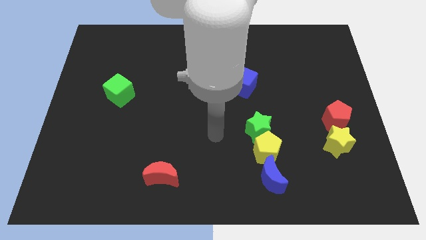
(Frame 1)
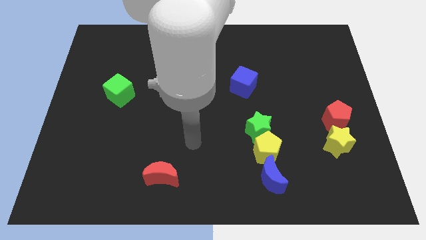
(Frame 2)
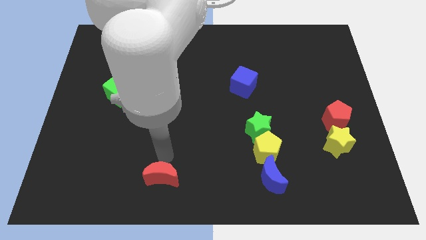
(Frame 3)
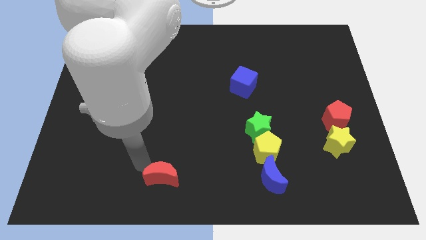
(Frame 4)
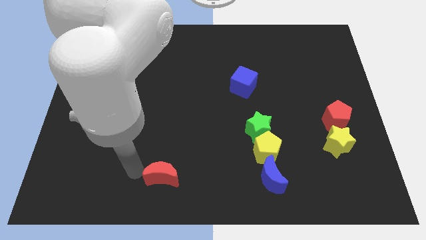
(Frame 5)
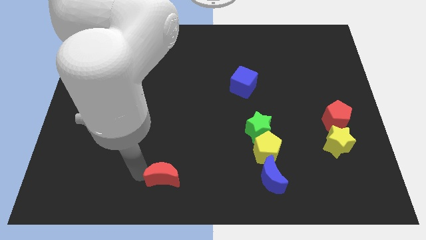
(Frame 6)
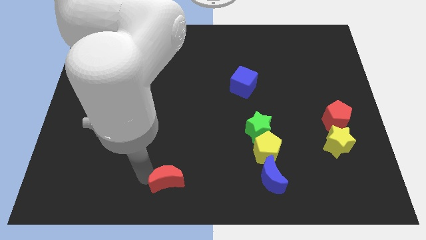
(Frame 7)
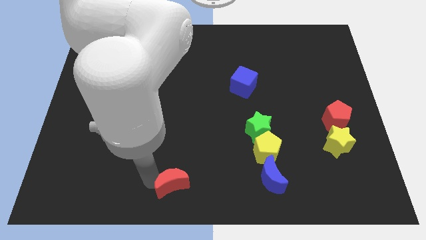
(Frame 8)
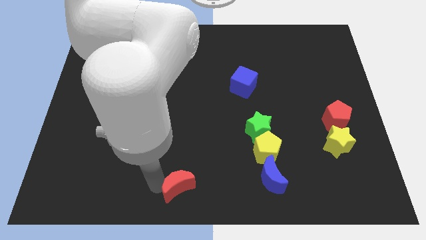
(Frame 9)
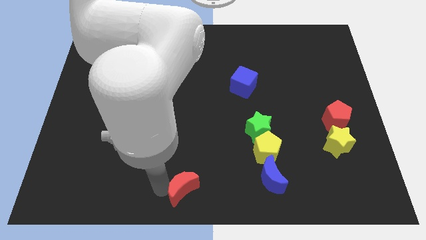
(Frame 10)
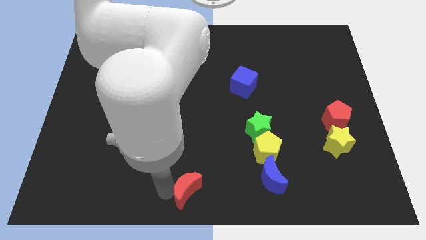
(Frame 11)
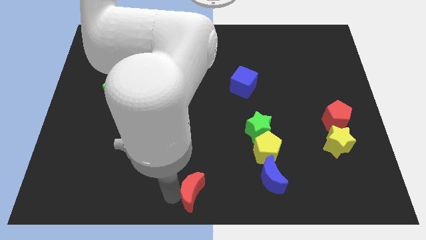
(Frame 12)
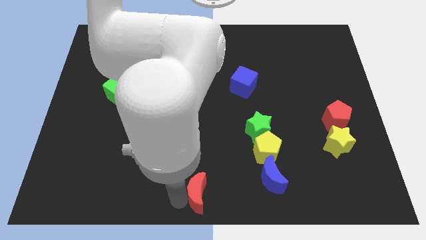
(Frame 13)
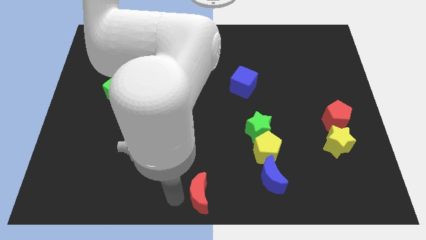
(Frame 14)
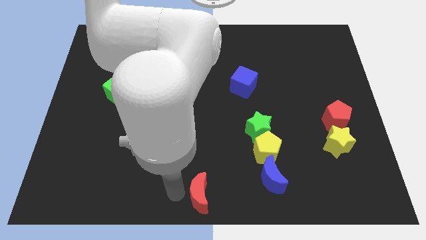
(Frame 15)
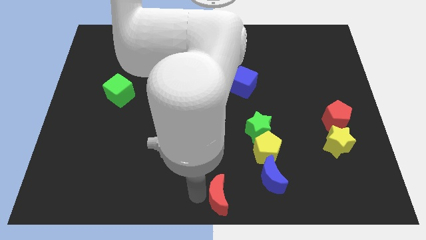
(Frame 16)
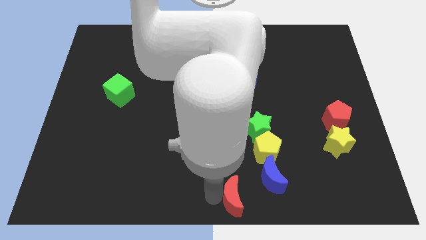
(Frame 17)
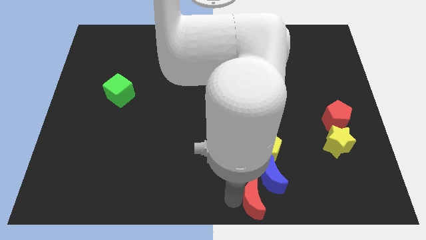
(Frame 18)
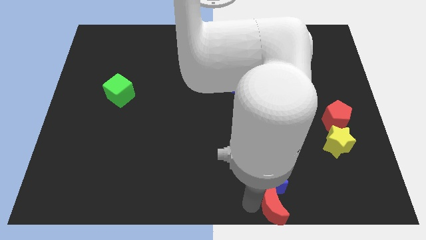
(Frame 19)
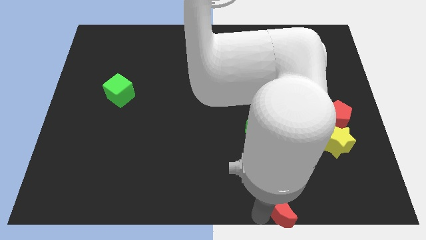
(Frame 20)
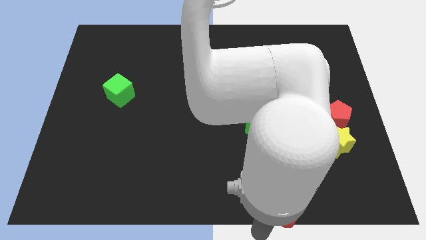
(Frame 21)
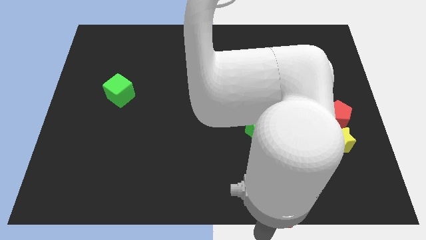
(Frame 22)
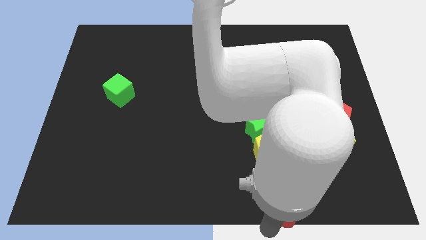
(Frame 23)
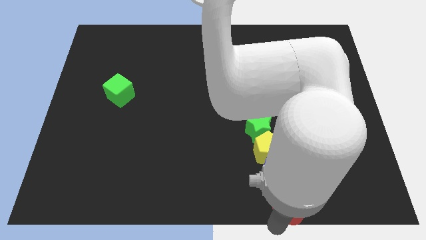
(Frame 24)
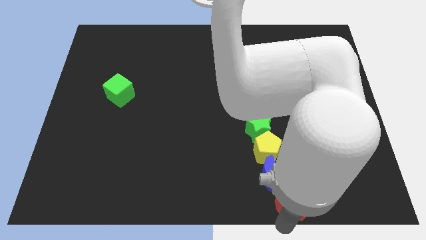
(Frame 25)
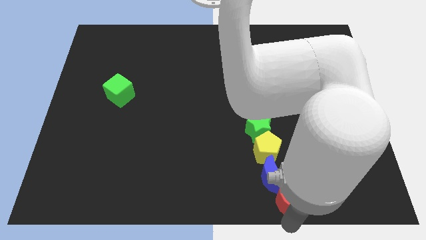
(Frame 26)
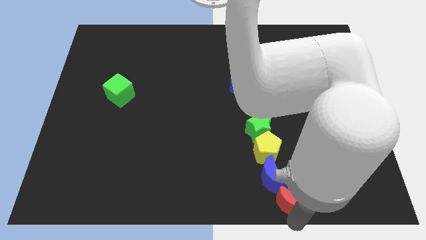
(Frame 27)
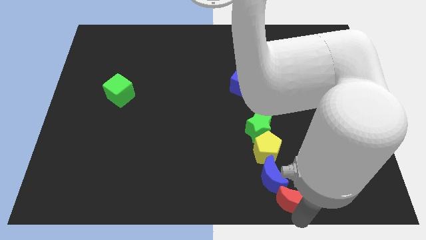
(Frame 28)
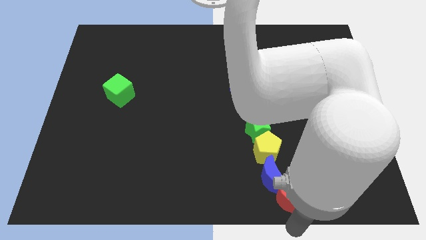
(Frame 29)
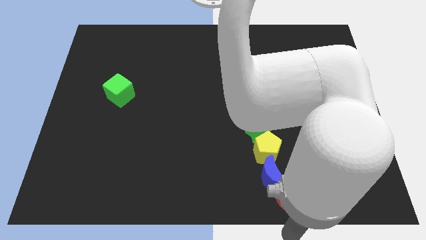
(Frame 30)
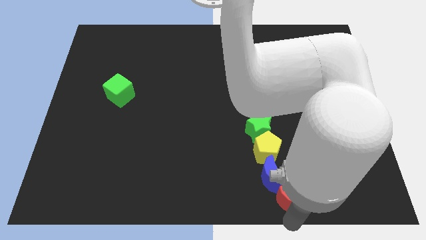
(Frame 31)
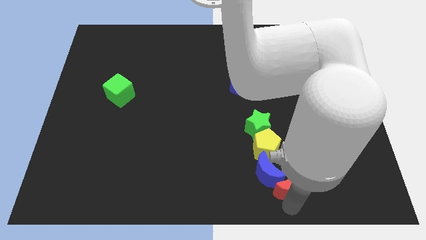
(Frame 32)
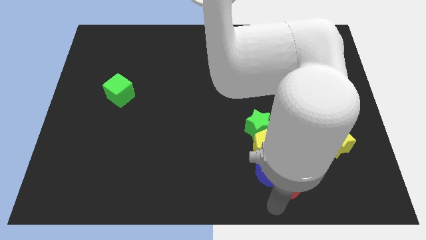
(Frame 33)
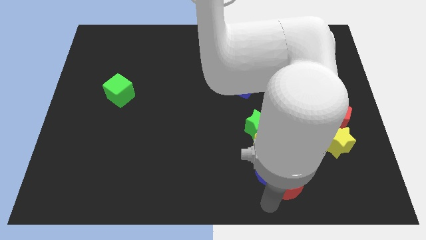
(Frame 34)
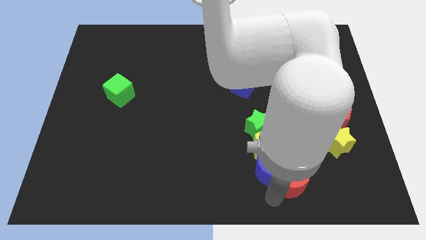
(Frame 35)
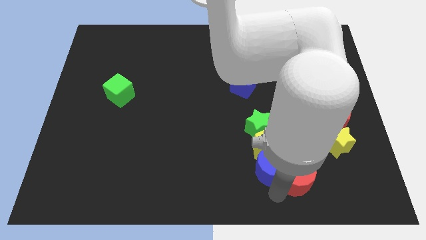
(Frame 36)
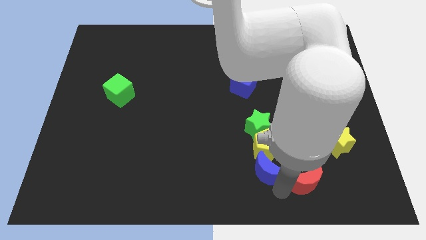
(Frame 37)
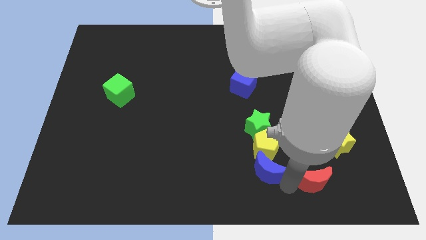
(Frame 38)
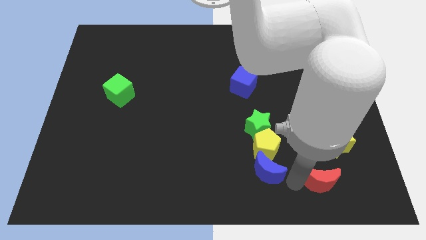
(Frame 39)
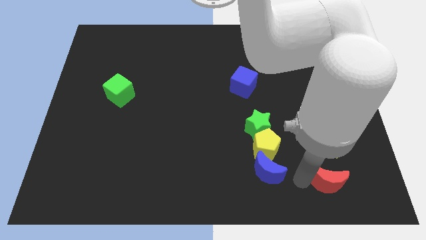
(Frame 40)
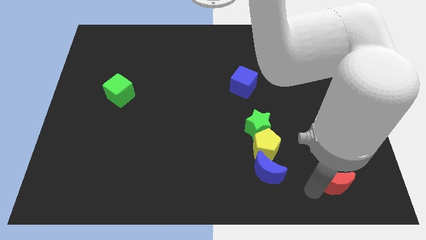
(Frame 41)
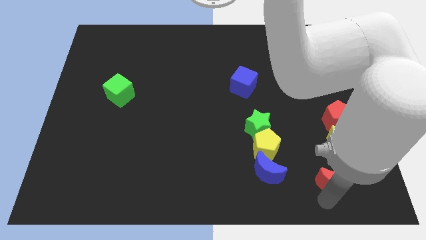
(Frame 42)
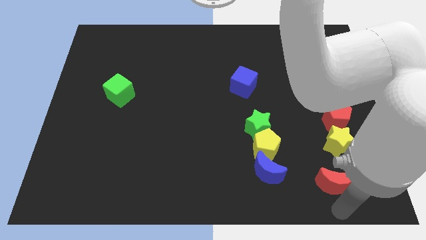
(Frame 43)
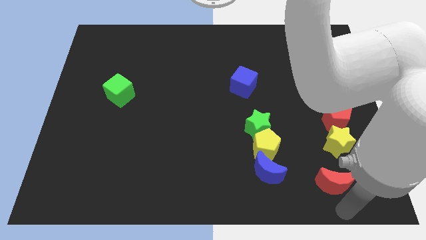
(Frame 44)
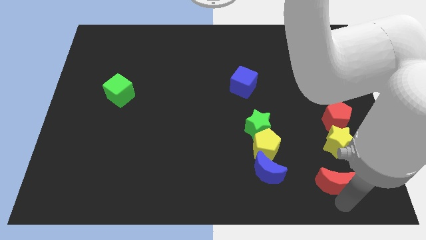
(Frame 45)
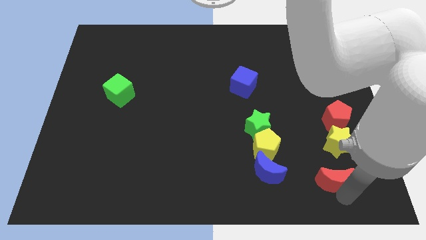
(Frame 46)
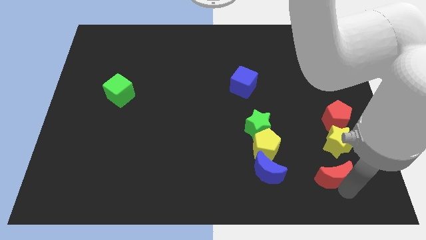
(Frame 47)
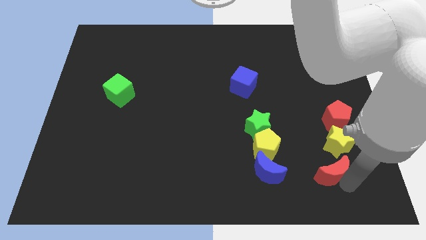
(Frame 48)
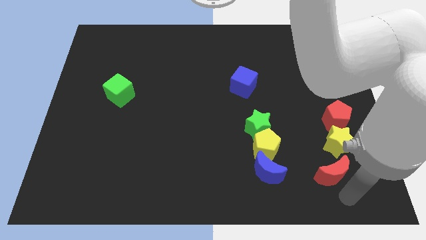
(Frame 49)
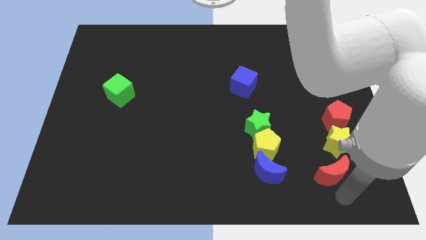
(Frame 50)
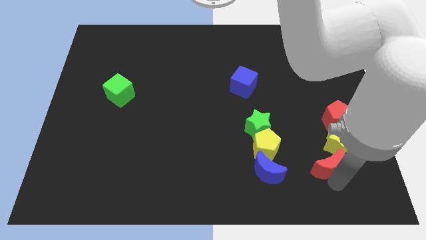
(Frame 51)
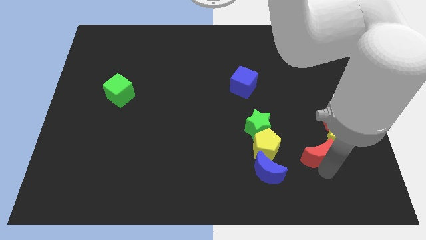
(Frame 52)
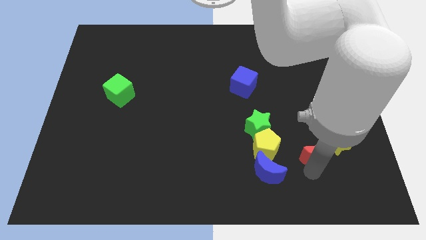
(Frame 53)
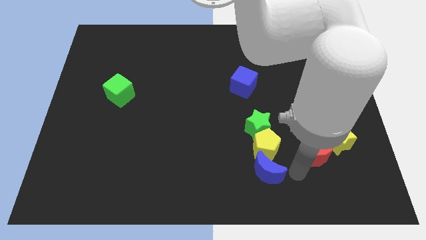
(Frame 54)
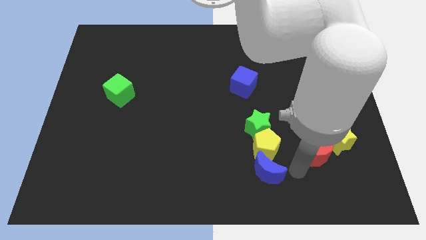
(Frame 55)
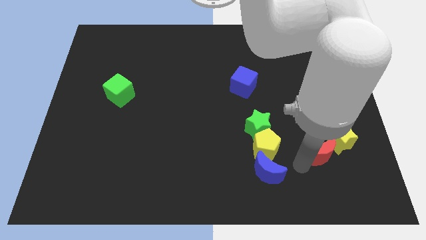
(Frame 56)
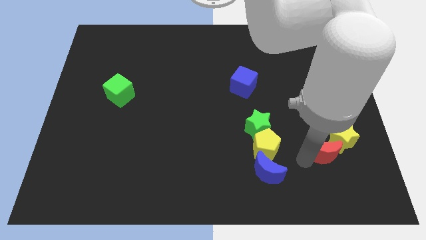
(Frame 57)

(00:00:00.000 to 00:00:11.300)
slide the red moon towards the yellow star

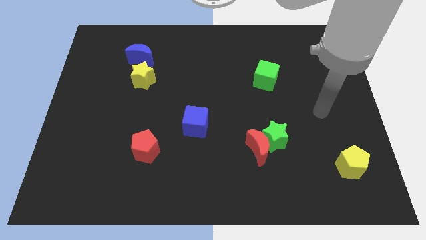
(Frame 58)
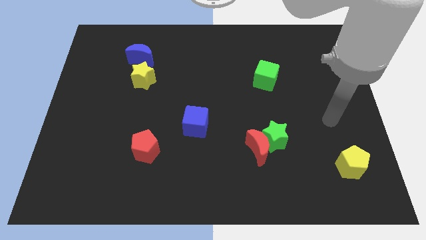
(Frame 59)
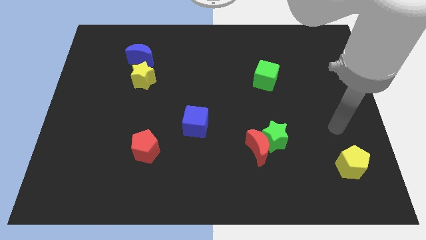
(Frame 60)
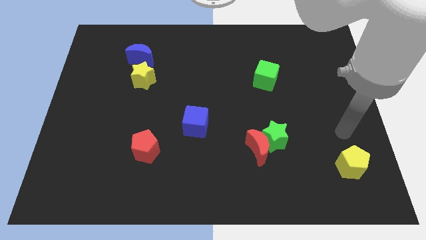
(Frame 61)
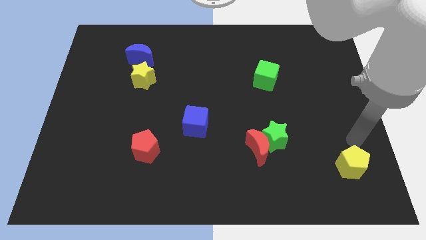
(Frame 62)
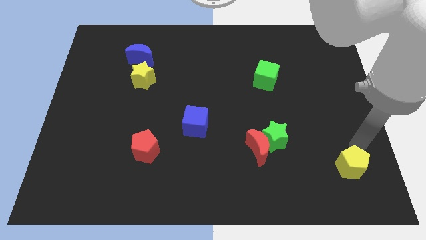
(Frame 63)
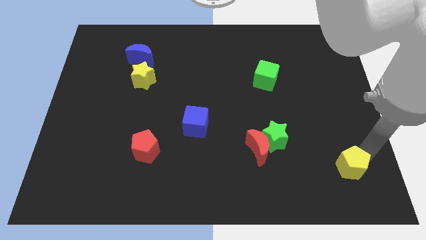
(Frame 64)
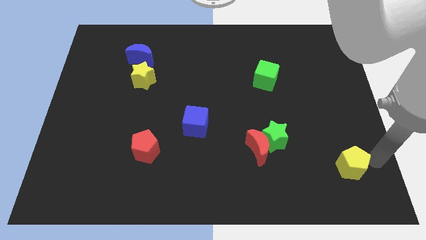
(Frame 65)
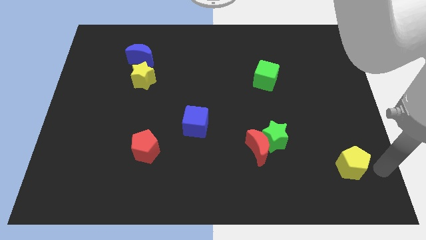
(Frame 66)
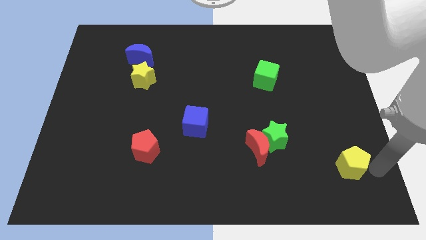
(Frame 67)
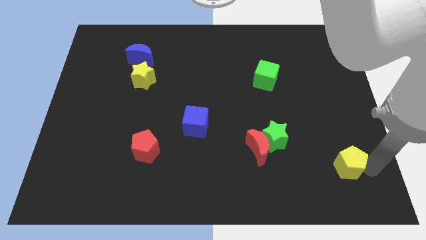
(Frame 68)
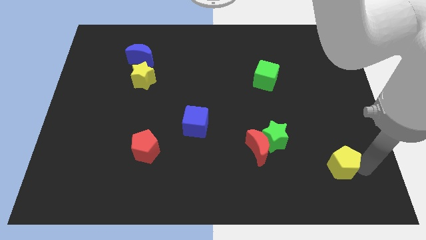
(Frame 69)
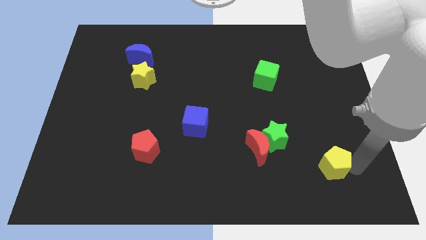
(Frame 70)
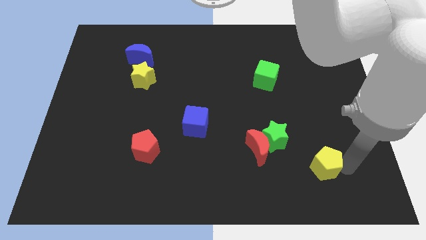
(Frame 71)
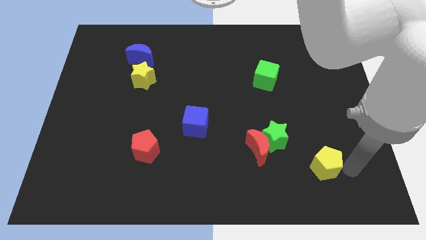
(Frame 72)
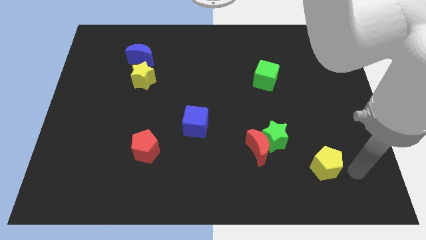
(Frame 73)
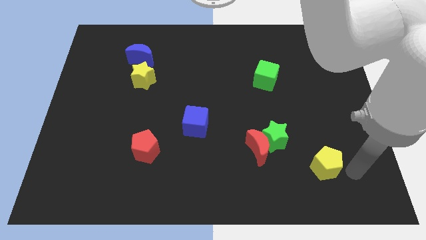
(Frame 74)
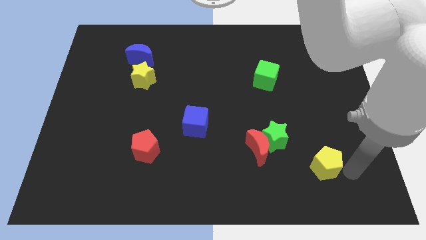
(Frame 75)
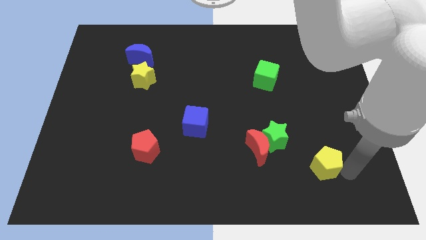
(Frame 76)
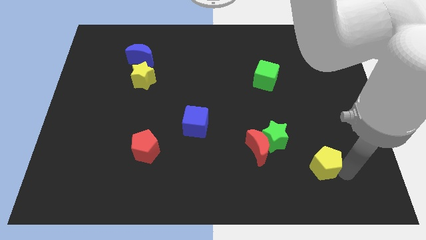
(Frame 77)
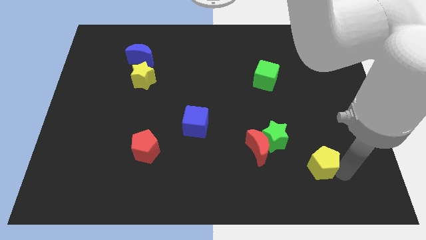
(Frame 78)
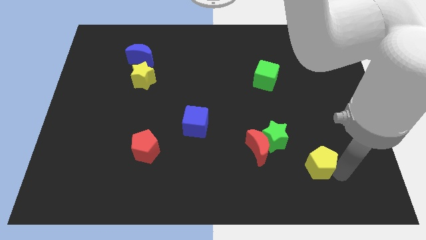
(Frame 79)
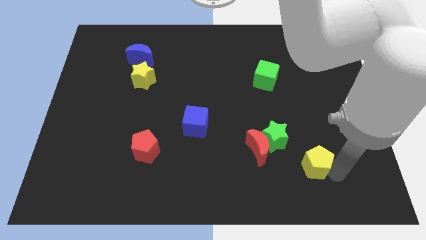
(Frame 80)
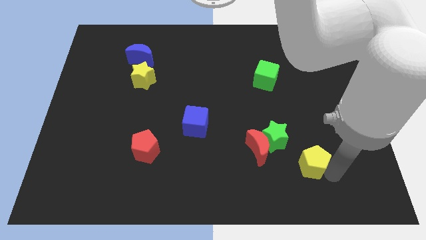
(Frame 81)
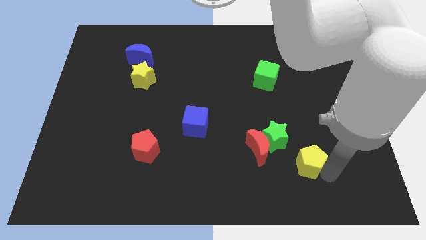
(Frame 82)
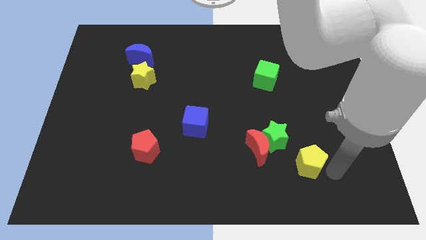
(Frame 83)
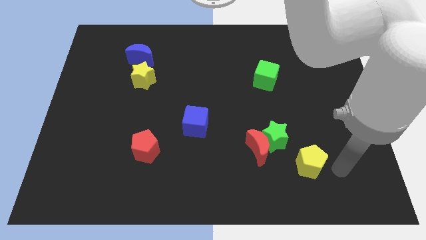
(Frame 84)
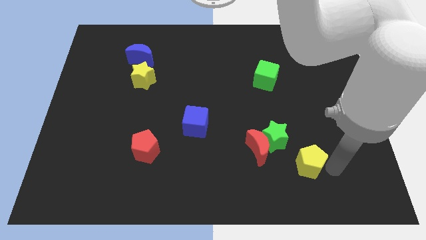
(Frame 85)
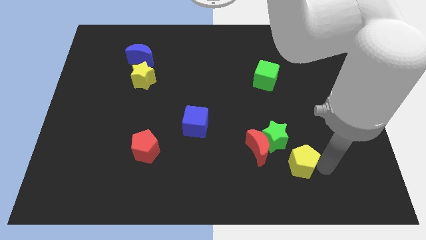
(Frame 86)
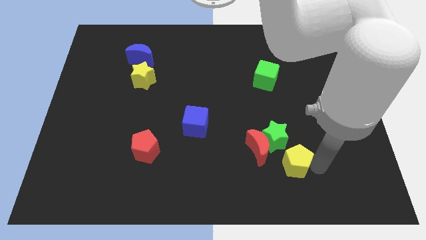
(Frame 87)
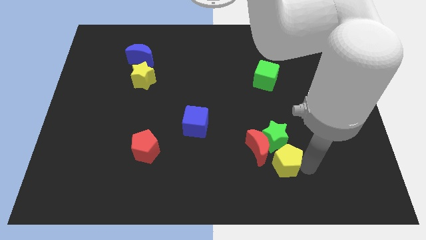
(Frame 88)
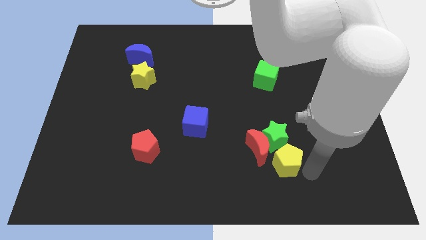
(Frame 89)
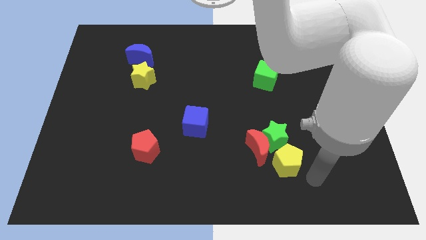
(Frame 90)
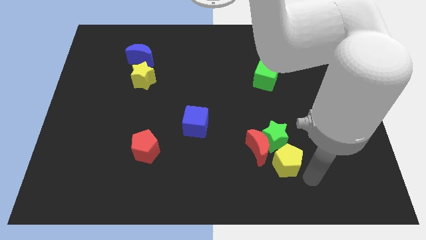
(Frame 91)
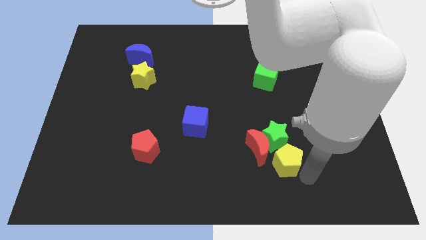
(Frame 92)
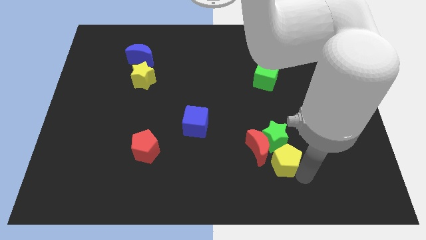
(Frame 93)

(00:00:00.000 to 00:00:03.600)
slide the yellow pentagon close to the red moon
